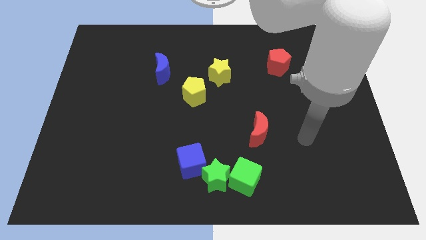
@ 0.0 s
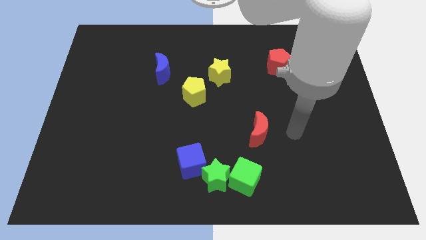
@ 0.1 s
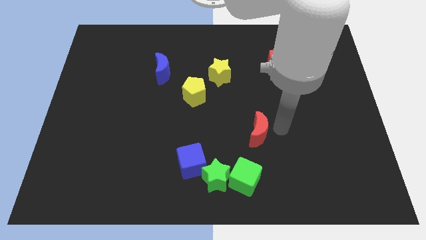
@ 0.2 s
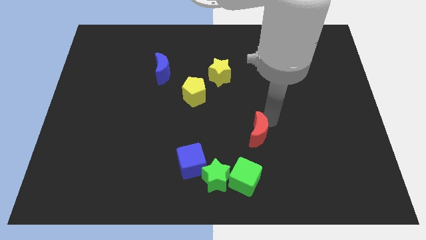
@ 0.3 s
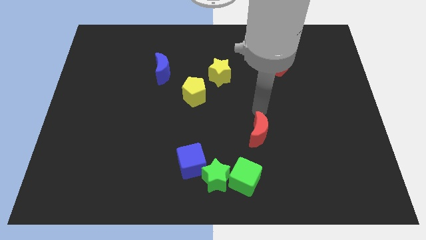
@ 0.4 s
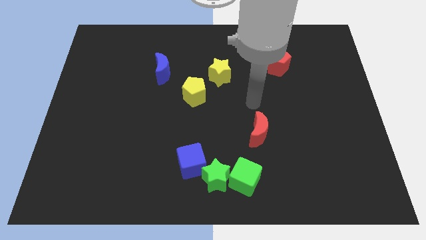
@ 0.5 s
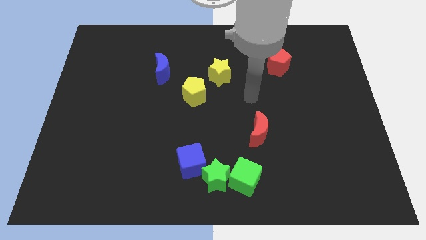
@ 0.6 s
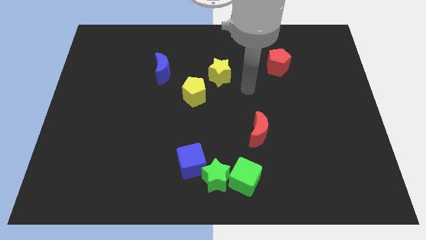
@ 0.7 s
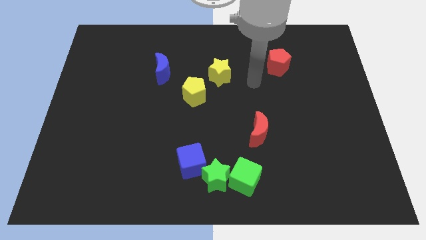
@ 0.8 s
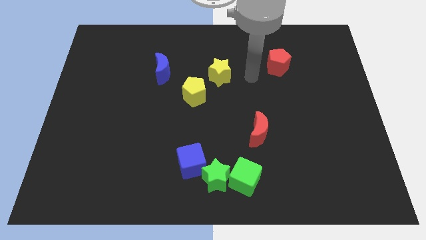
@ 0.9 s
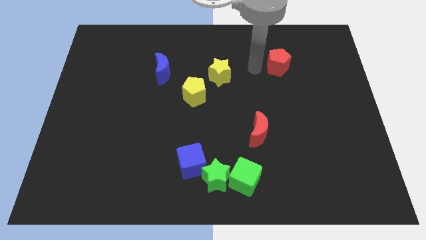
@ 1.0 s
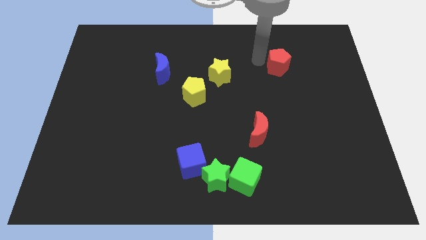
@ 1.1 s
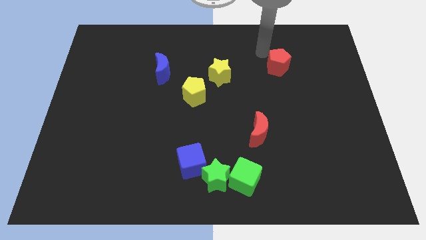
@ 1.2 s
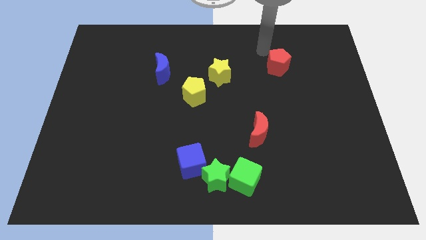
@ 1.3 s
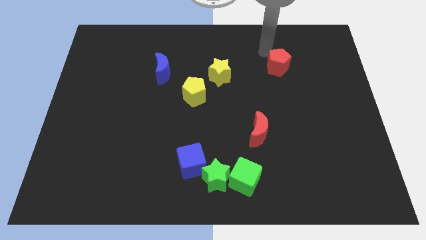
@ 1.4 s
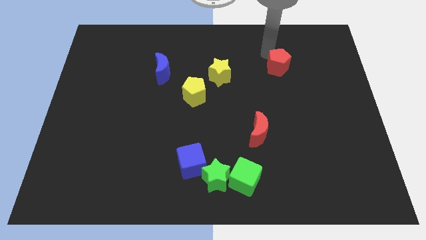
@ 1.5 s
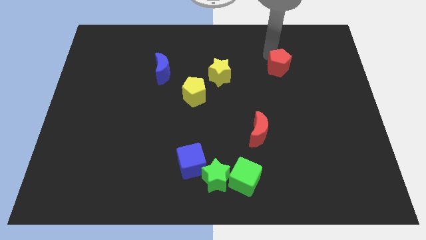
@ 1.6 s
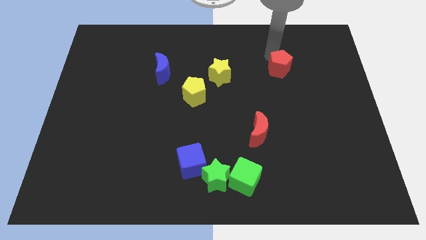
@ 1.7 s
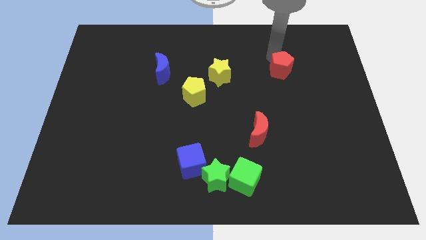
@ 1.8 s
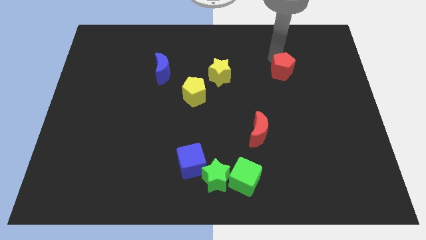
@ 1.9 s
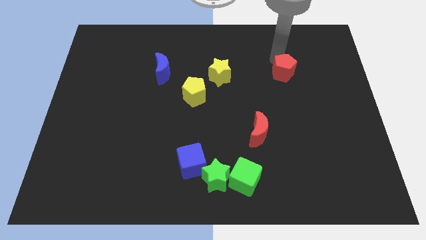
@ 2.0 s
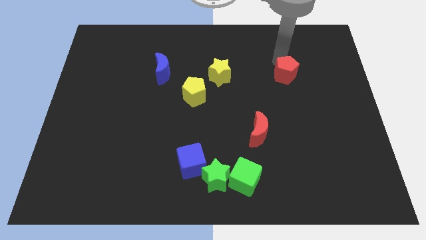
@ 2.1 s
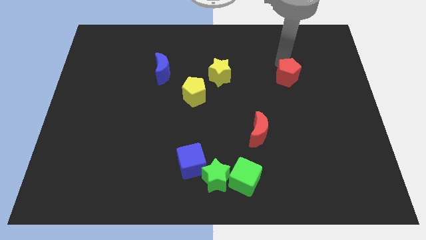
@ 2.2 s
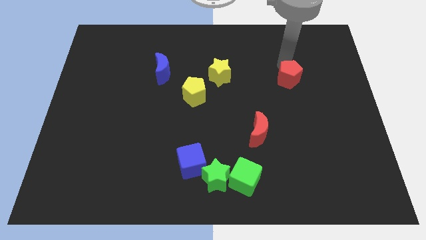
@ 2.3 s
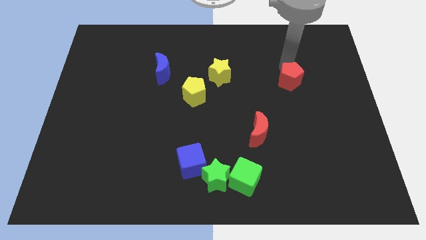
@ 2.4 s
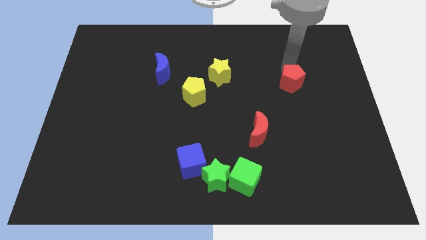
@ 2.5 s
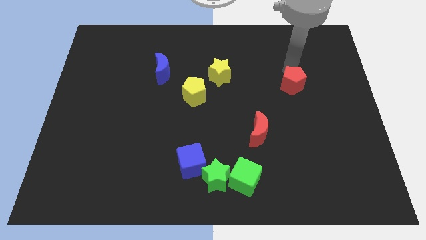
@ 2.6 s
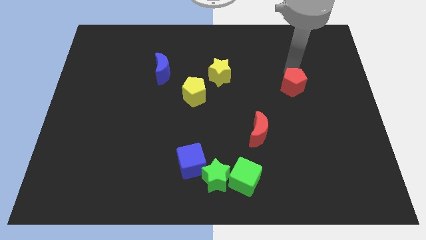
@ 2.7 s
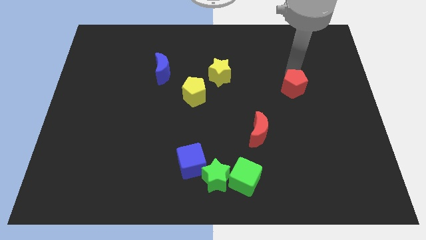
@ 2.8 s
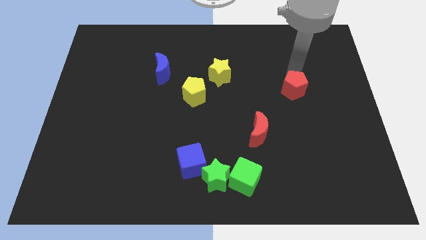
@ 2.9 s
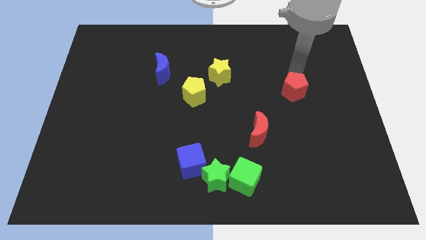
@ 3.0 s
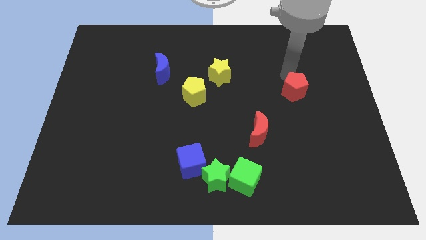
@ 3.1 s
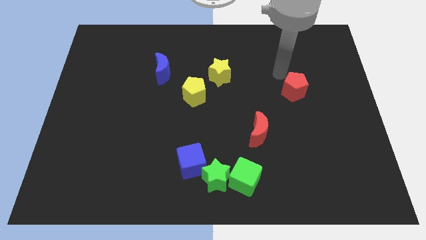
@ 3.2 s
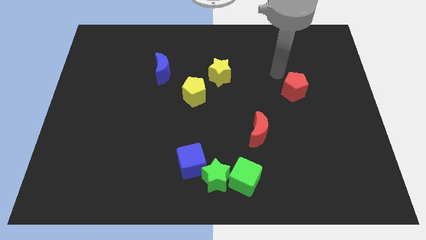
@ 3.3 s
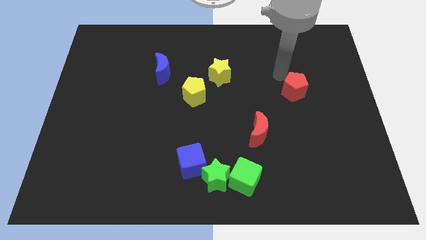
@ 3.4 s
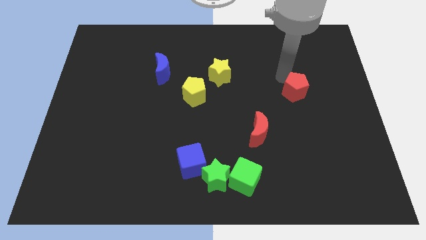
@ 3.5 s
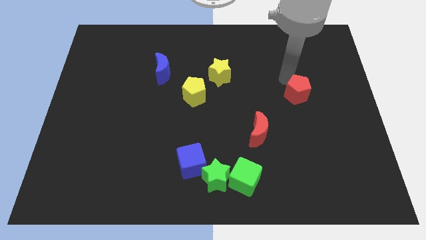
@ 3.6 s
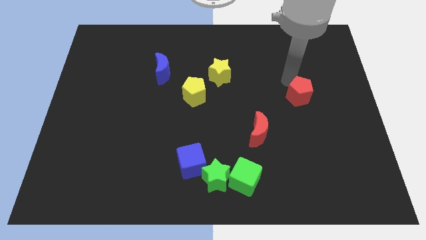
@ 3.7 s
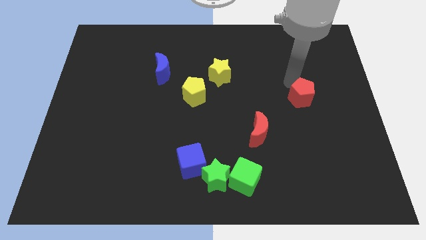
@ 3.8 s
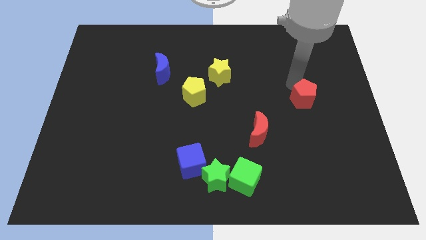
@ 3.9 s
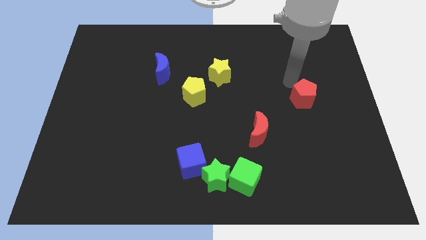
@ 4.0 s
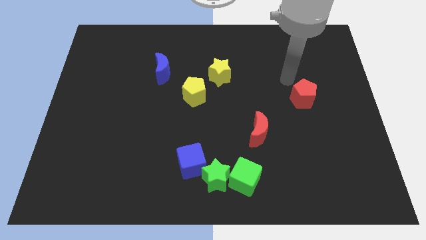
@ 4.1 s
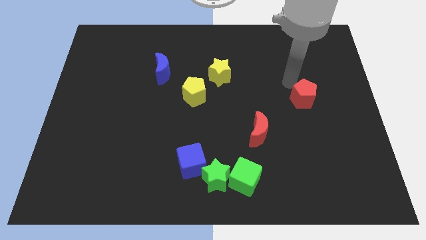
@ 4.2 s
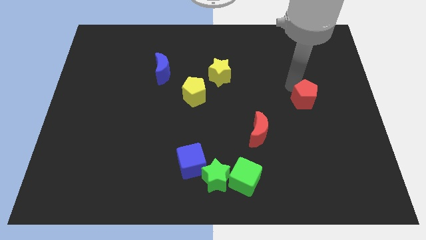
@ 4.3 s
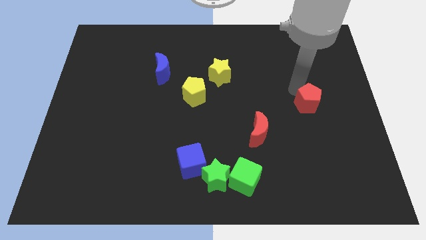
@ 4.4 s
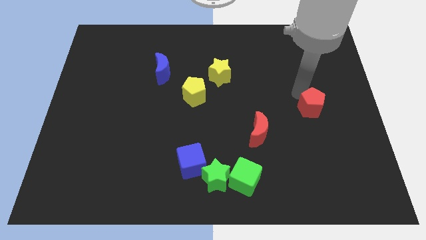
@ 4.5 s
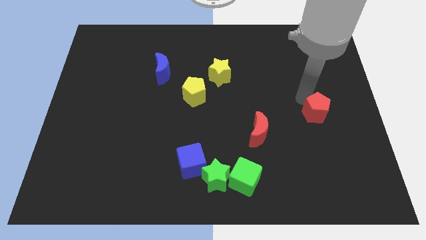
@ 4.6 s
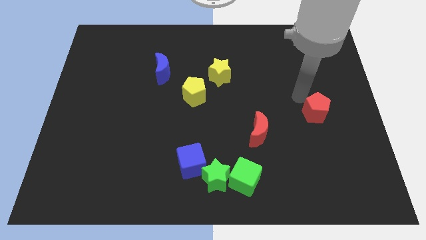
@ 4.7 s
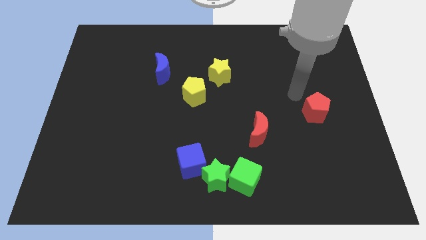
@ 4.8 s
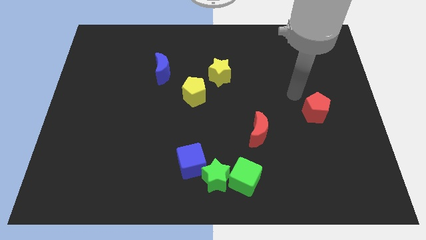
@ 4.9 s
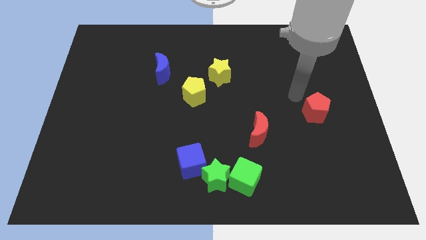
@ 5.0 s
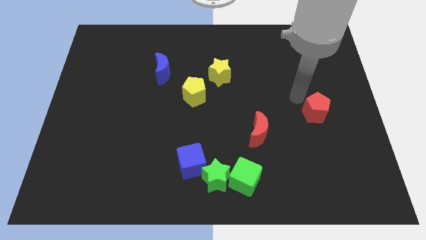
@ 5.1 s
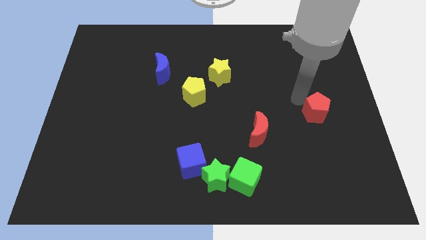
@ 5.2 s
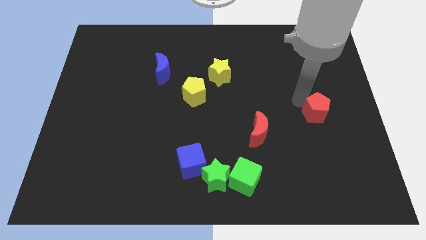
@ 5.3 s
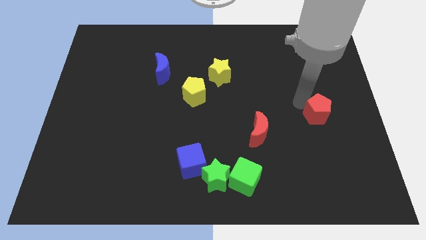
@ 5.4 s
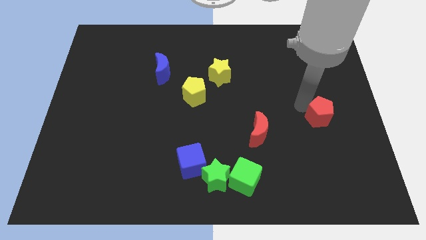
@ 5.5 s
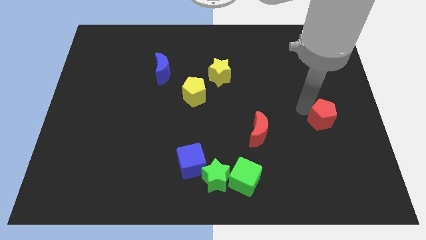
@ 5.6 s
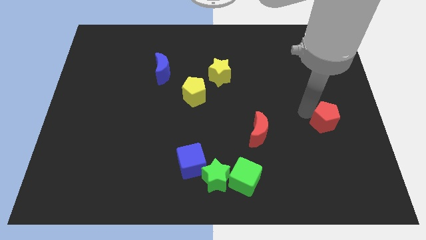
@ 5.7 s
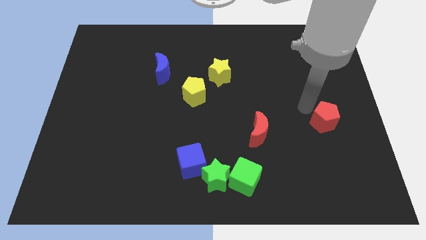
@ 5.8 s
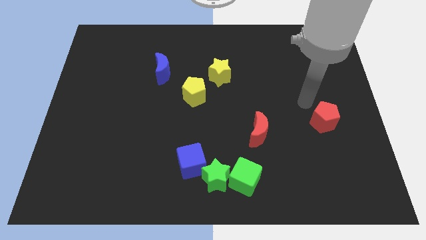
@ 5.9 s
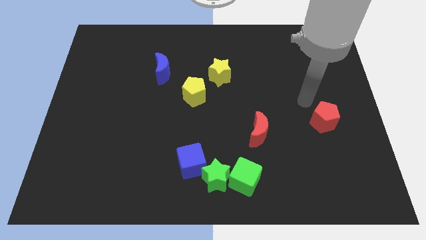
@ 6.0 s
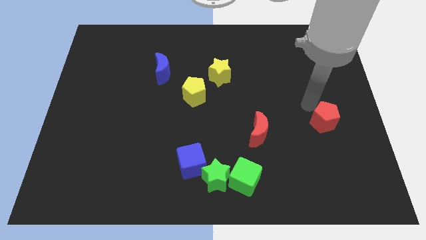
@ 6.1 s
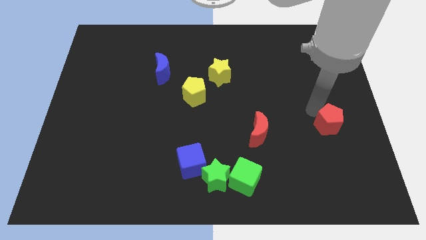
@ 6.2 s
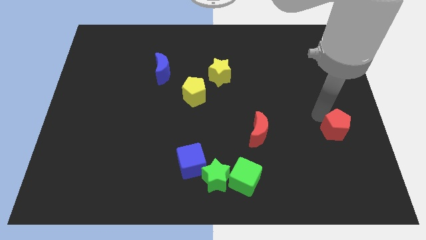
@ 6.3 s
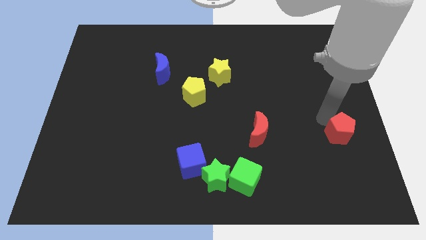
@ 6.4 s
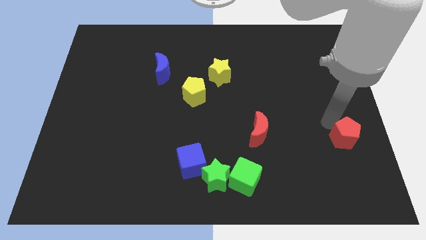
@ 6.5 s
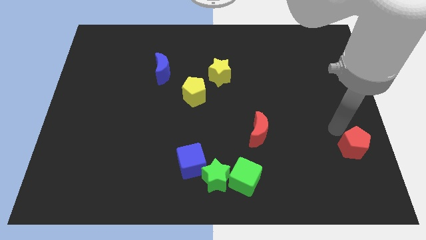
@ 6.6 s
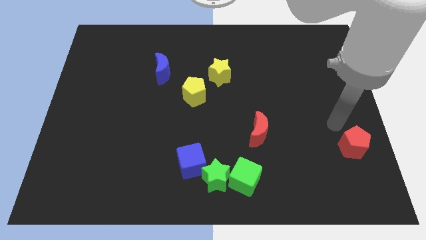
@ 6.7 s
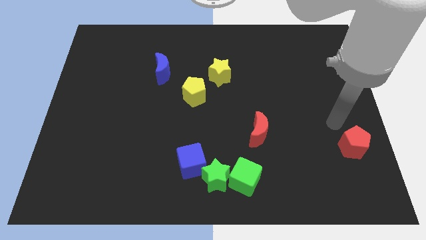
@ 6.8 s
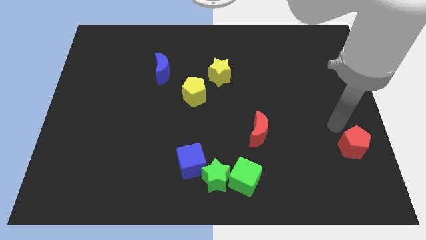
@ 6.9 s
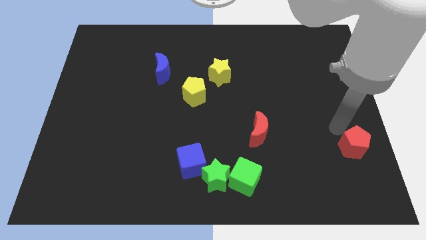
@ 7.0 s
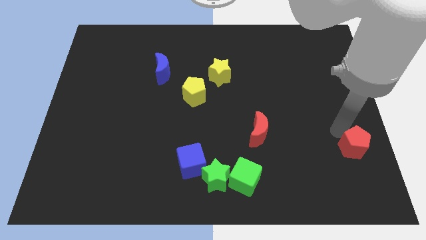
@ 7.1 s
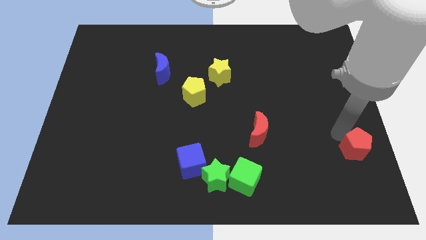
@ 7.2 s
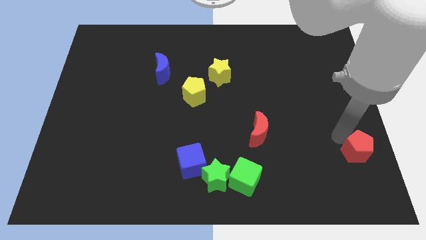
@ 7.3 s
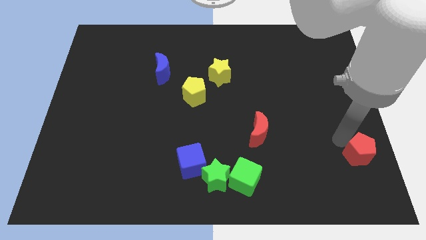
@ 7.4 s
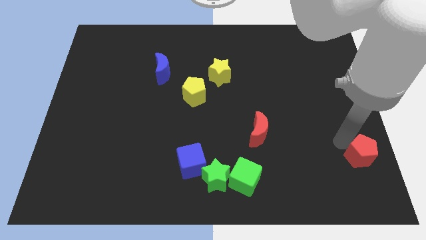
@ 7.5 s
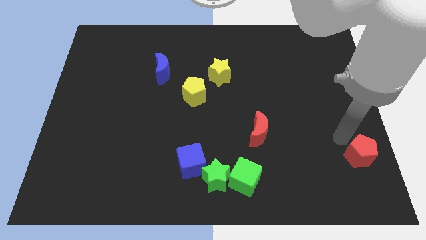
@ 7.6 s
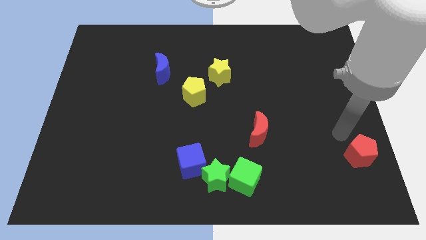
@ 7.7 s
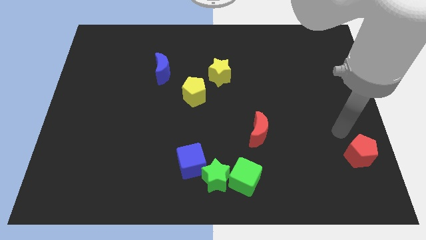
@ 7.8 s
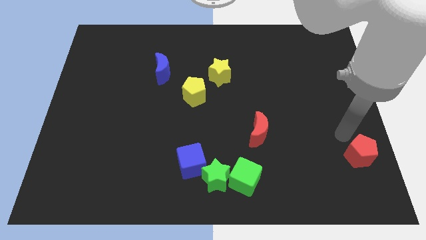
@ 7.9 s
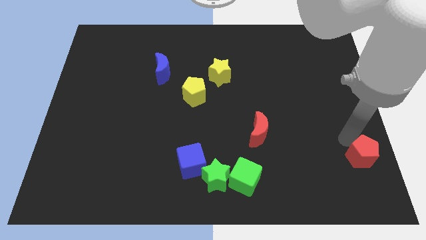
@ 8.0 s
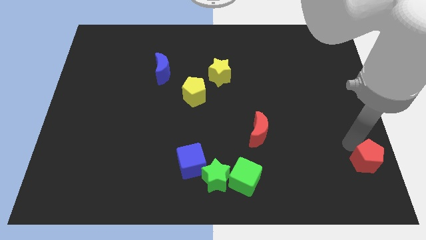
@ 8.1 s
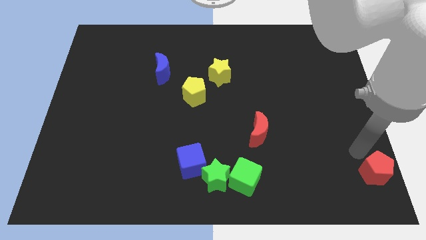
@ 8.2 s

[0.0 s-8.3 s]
move the red pentagon to the bottom right
